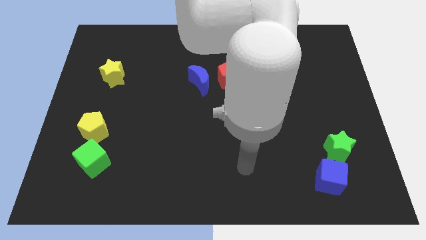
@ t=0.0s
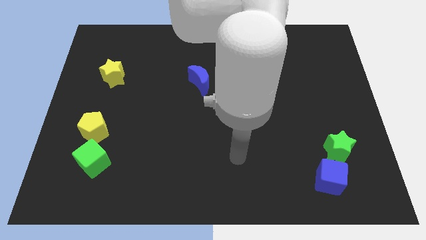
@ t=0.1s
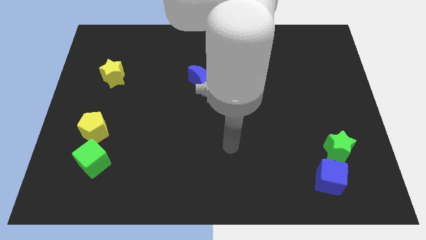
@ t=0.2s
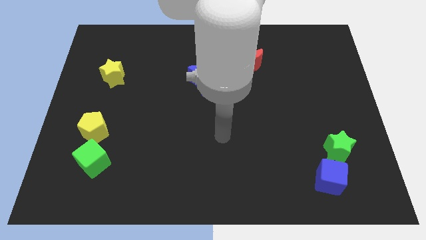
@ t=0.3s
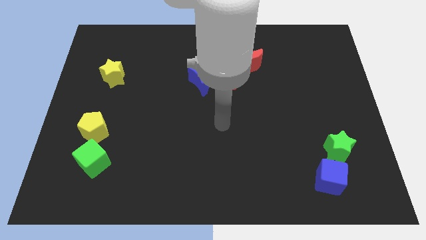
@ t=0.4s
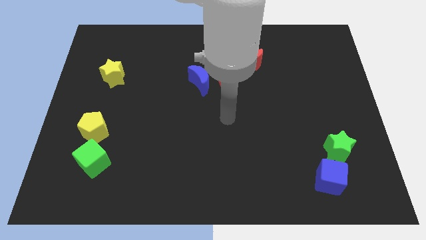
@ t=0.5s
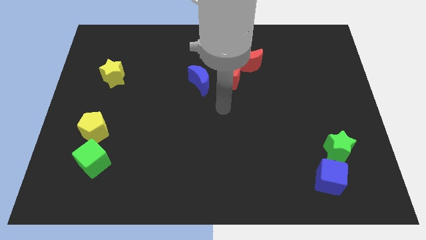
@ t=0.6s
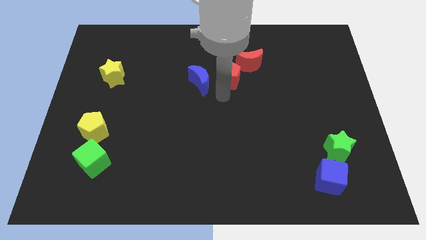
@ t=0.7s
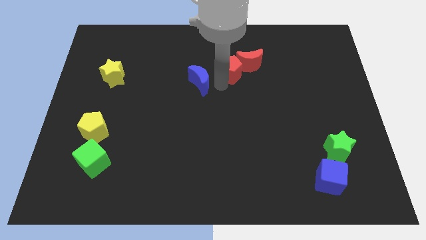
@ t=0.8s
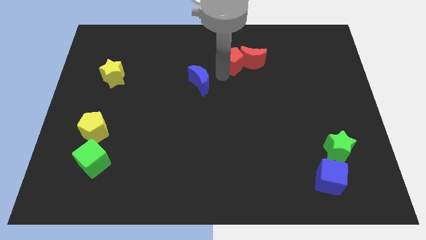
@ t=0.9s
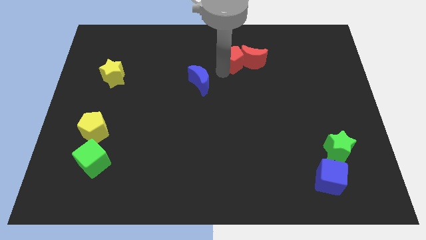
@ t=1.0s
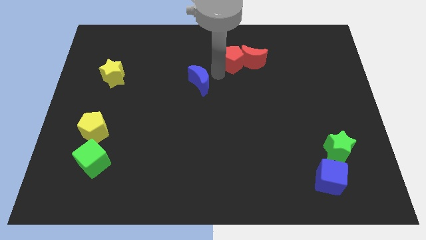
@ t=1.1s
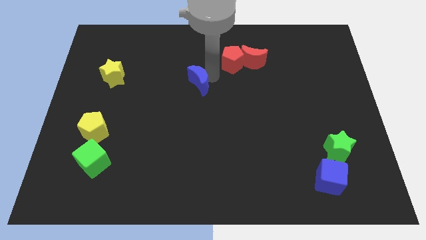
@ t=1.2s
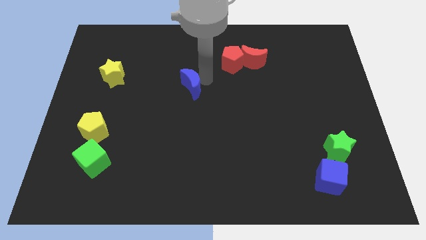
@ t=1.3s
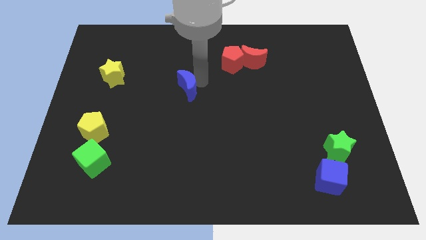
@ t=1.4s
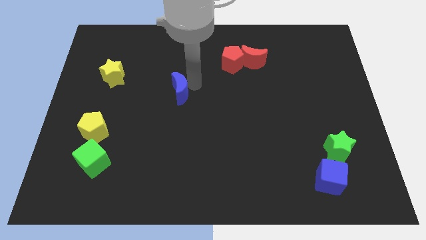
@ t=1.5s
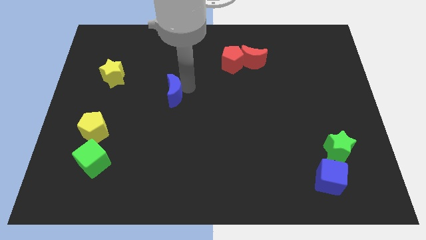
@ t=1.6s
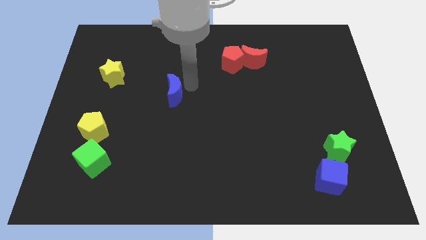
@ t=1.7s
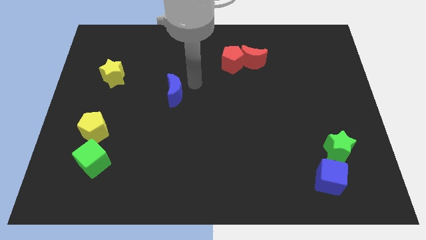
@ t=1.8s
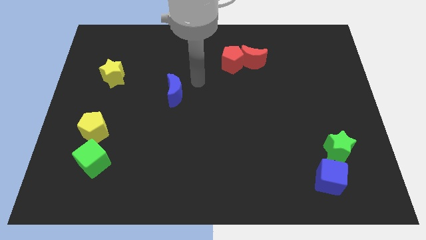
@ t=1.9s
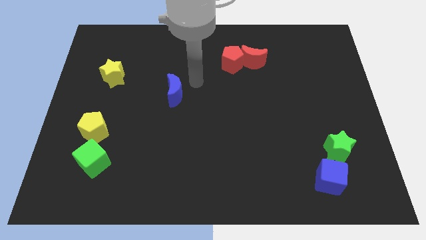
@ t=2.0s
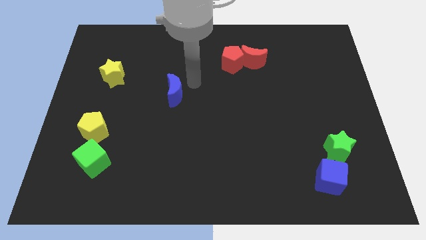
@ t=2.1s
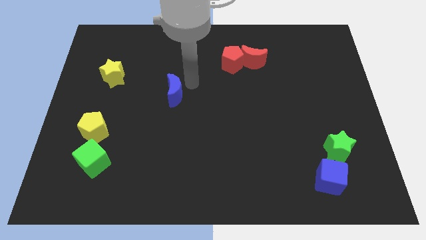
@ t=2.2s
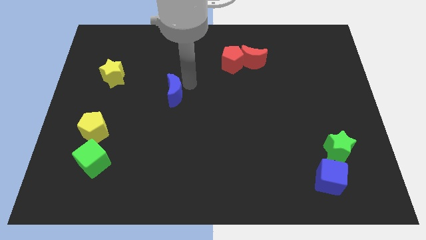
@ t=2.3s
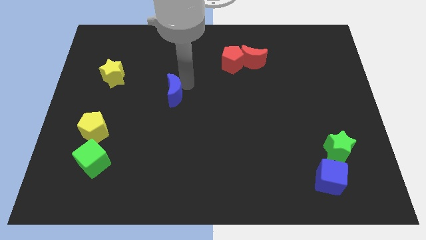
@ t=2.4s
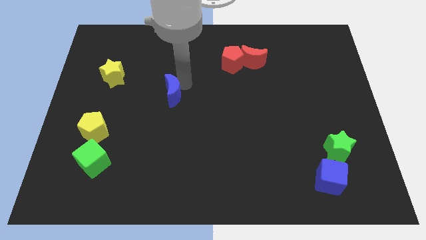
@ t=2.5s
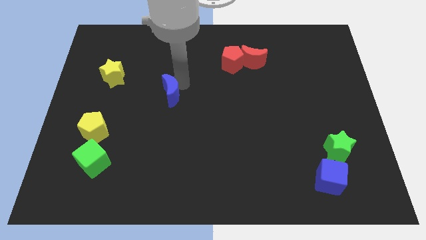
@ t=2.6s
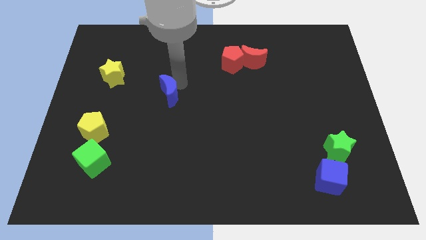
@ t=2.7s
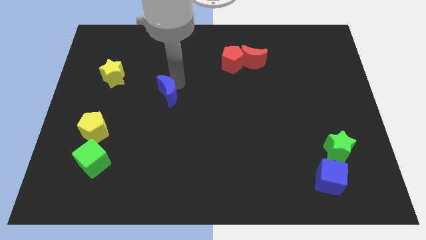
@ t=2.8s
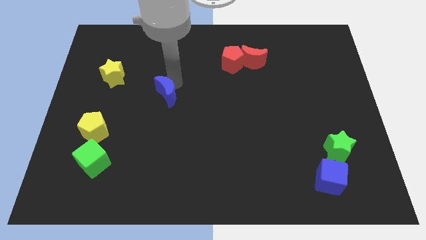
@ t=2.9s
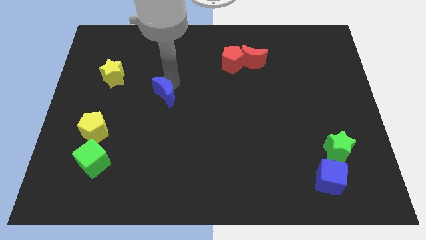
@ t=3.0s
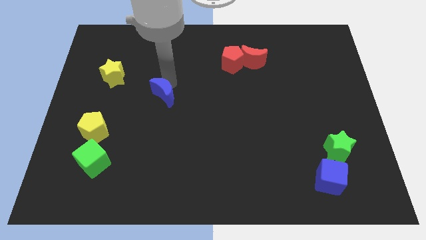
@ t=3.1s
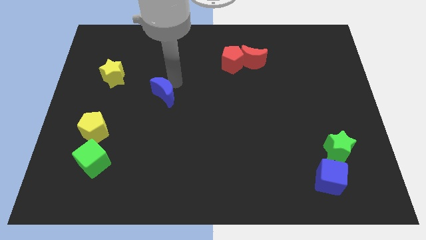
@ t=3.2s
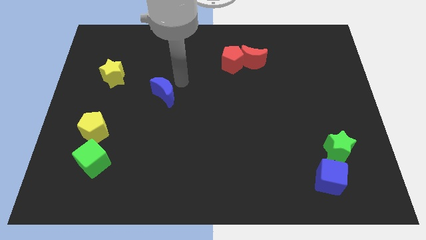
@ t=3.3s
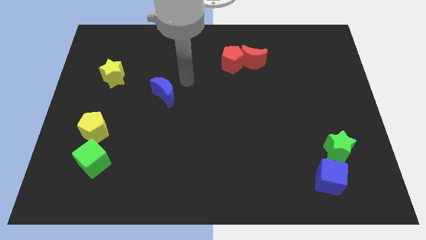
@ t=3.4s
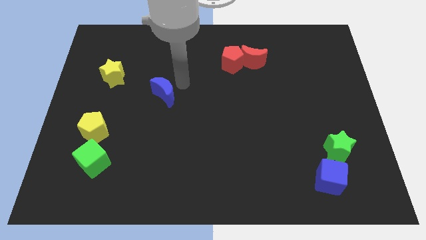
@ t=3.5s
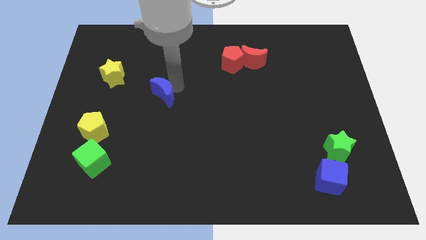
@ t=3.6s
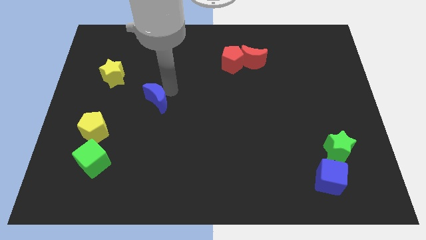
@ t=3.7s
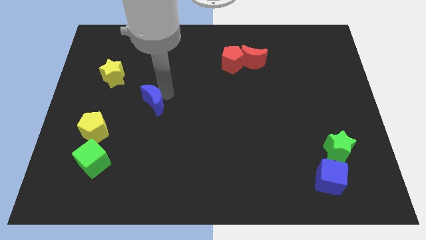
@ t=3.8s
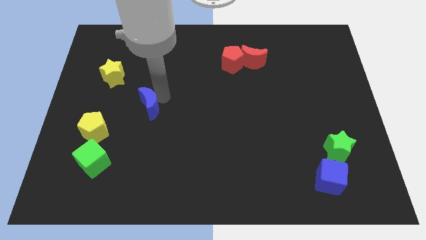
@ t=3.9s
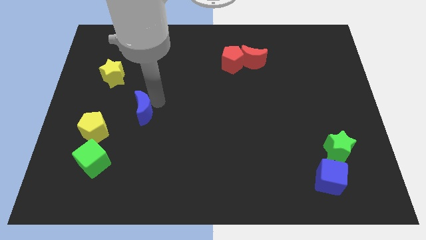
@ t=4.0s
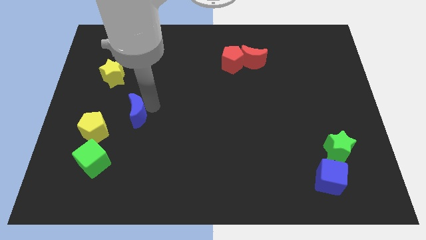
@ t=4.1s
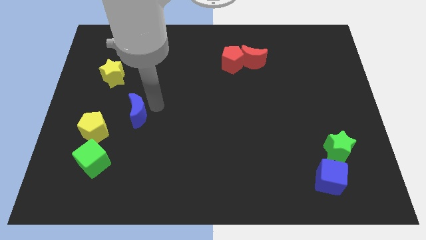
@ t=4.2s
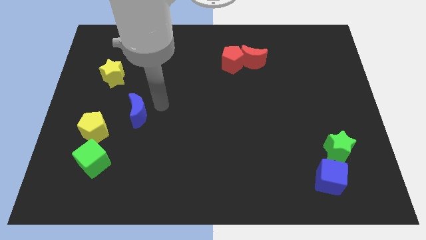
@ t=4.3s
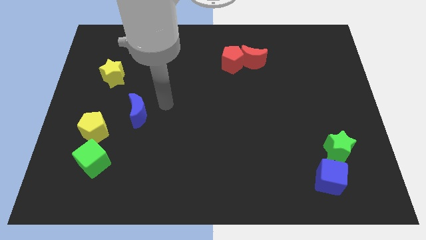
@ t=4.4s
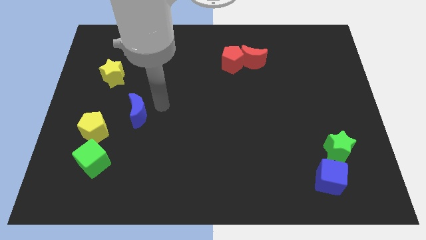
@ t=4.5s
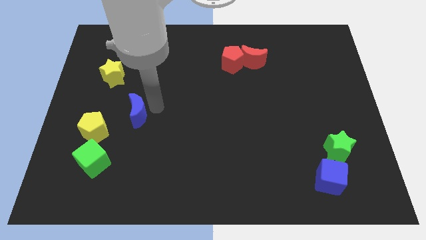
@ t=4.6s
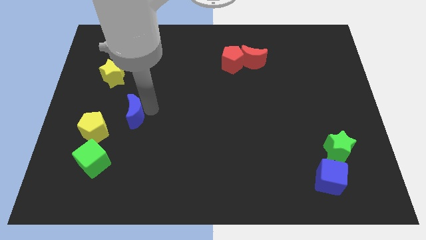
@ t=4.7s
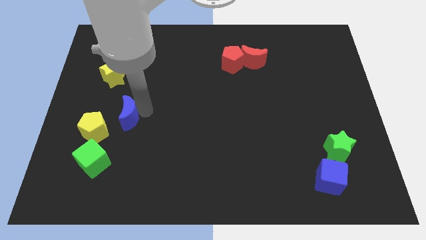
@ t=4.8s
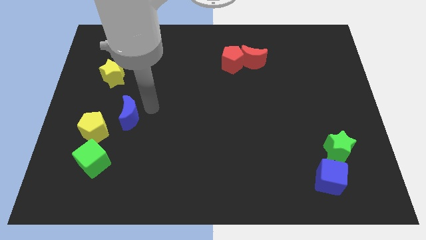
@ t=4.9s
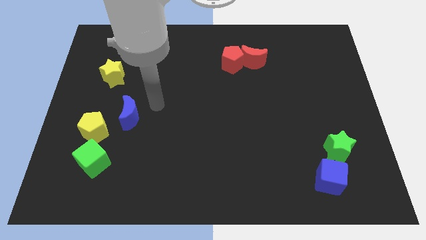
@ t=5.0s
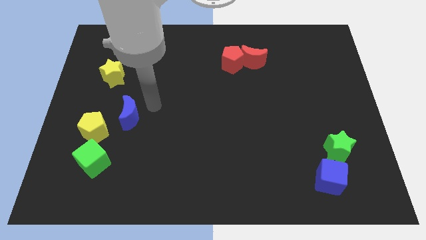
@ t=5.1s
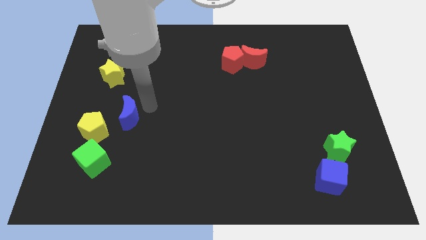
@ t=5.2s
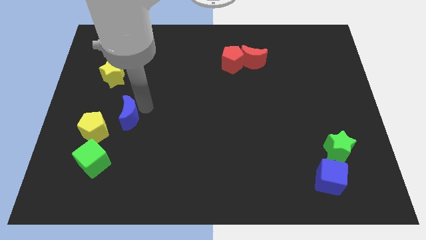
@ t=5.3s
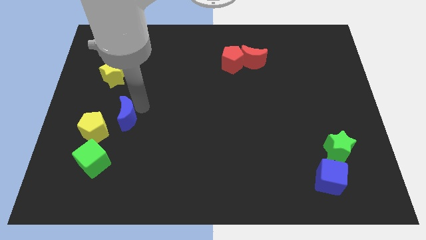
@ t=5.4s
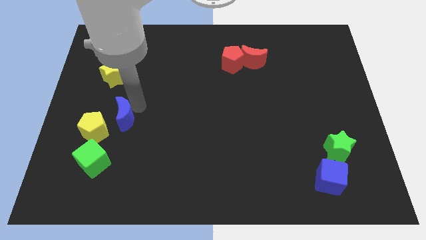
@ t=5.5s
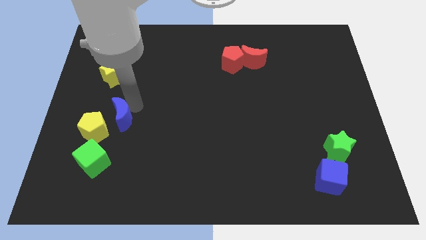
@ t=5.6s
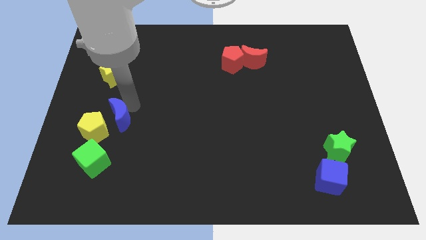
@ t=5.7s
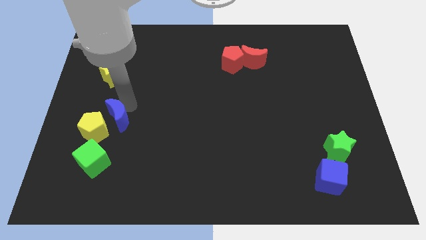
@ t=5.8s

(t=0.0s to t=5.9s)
push the blue moon close to the yellow pentagon

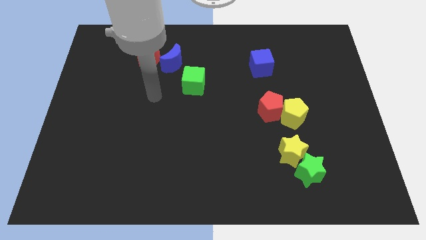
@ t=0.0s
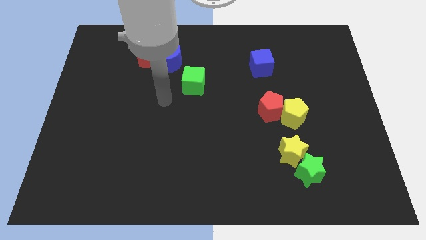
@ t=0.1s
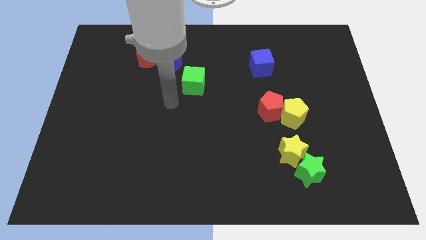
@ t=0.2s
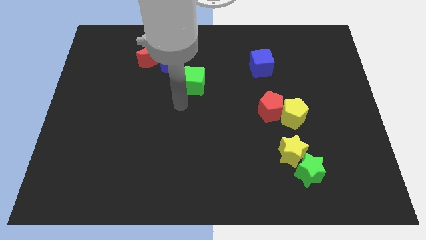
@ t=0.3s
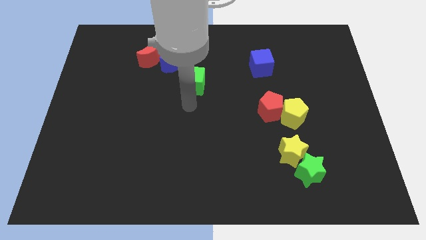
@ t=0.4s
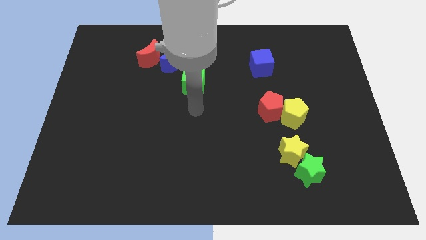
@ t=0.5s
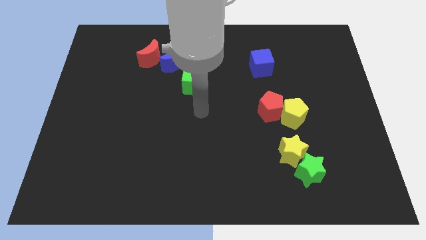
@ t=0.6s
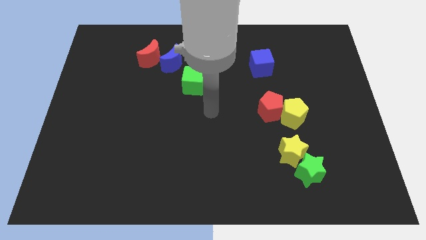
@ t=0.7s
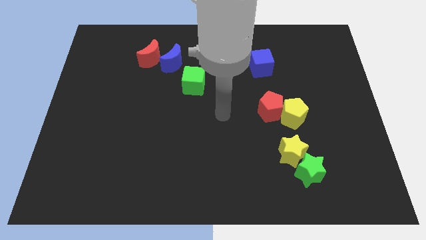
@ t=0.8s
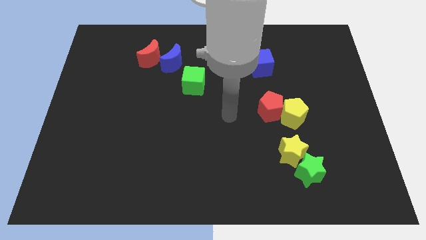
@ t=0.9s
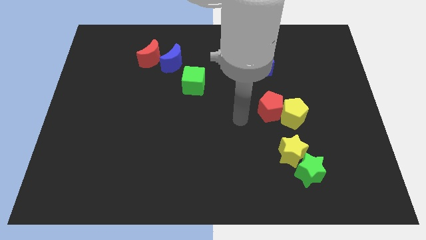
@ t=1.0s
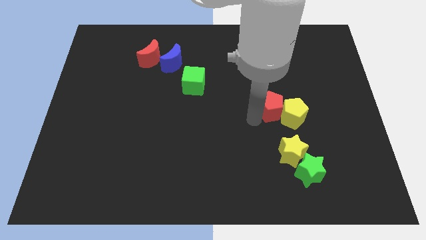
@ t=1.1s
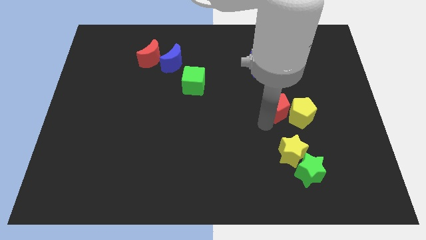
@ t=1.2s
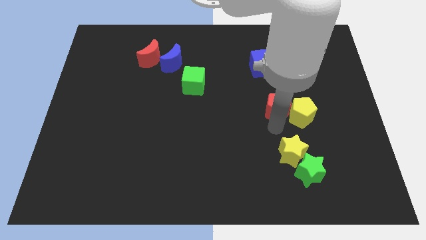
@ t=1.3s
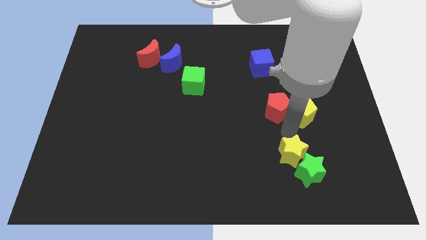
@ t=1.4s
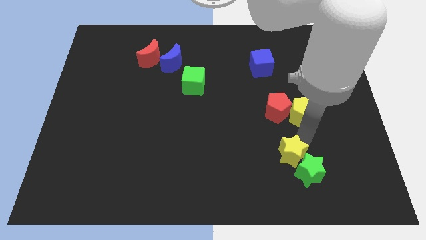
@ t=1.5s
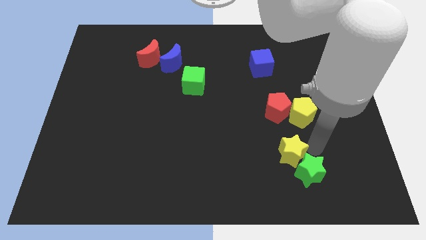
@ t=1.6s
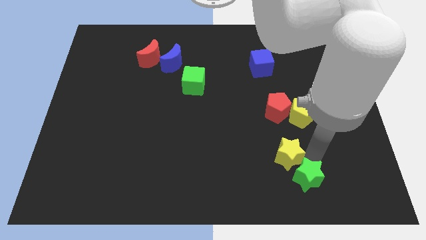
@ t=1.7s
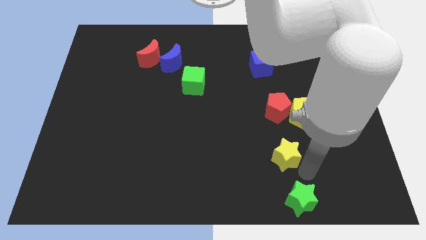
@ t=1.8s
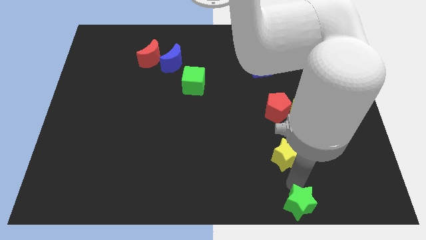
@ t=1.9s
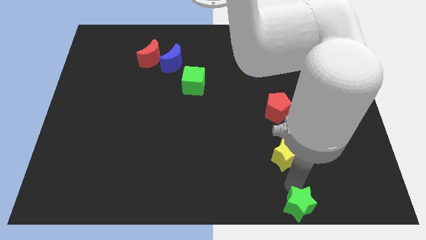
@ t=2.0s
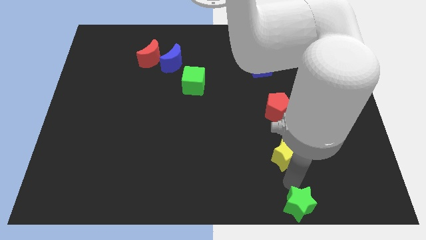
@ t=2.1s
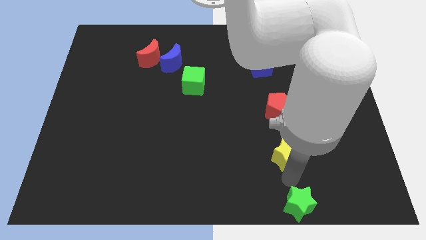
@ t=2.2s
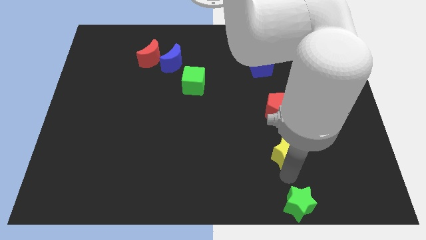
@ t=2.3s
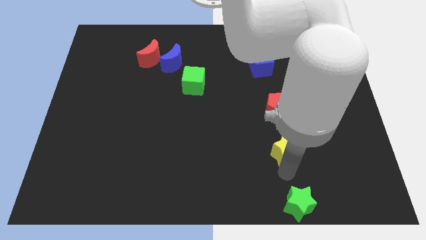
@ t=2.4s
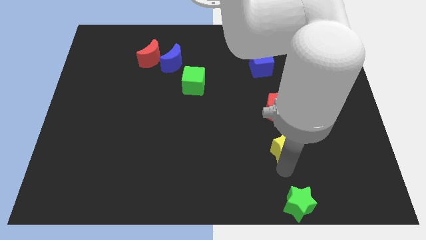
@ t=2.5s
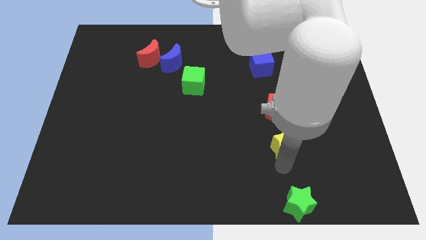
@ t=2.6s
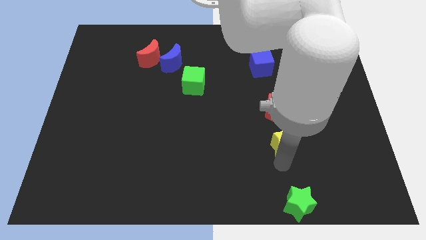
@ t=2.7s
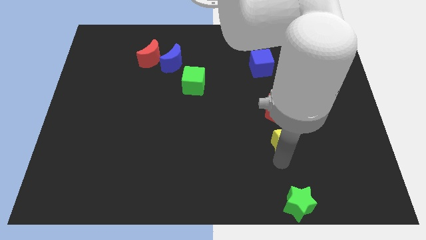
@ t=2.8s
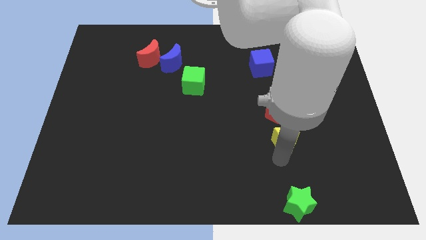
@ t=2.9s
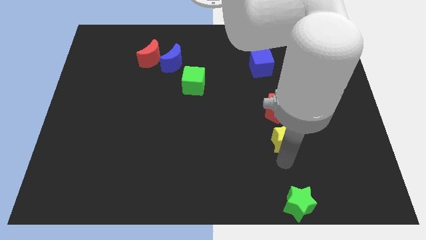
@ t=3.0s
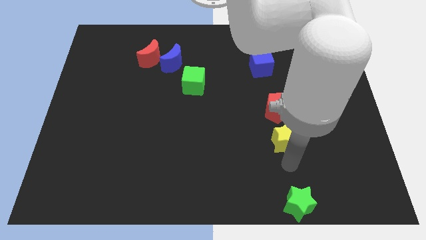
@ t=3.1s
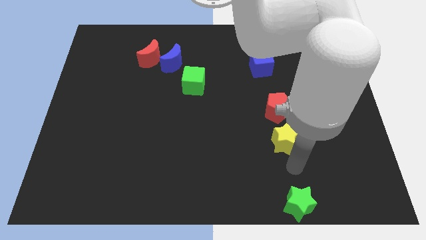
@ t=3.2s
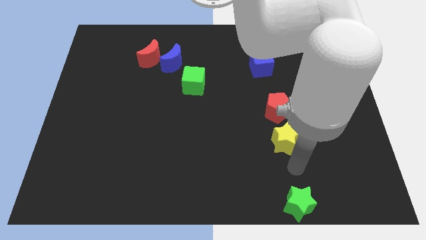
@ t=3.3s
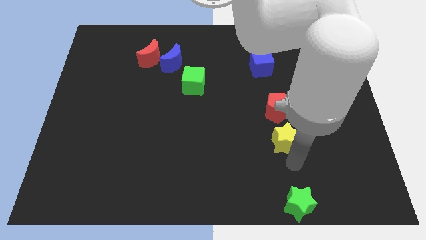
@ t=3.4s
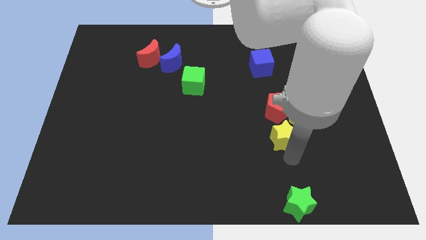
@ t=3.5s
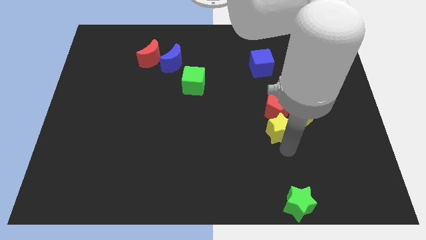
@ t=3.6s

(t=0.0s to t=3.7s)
put the yellow star close to the red pentagon
